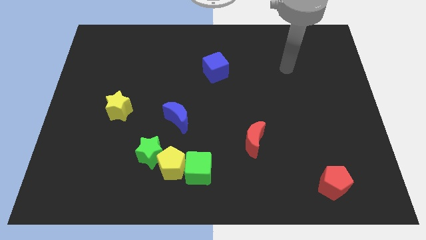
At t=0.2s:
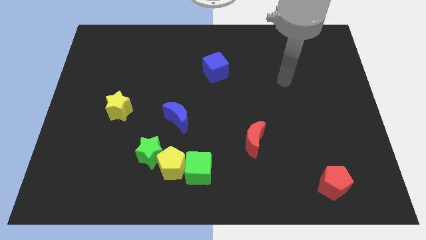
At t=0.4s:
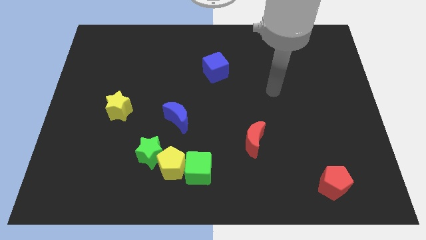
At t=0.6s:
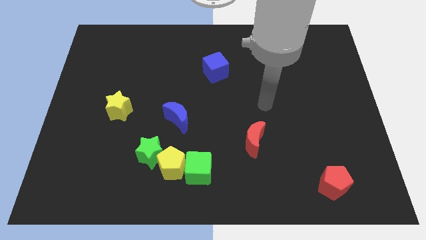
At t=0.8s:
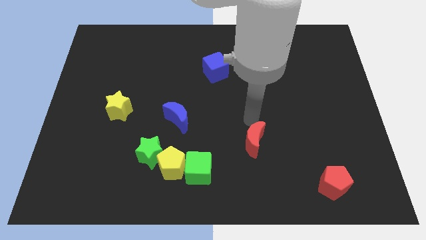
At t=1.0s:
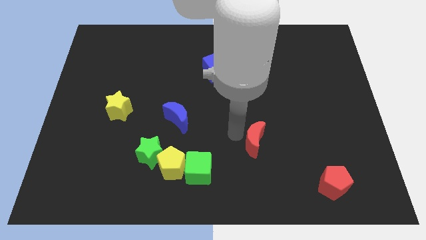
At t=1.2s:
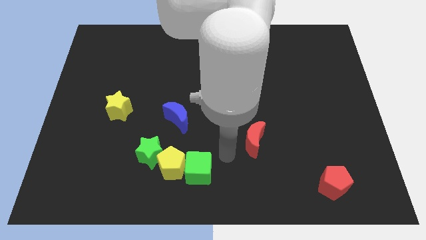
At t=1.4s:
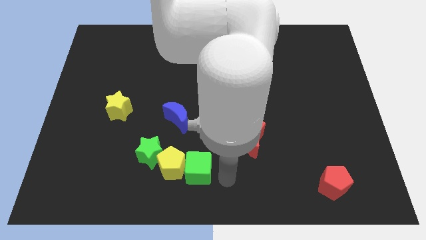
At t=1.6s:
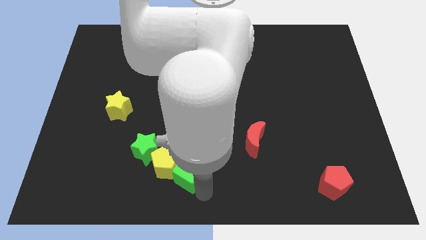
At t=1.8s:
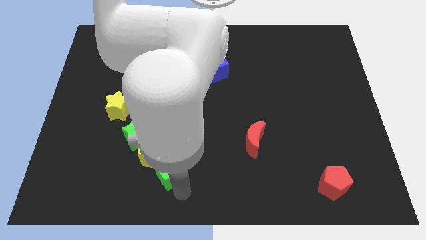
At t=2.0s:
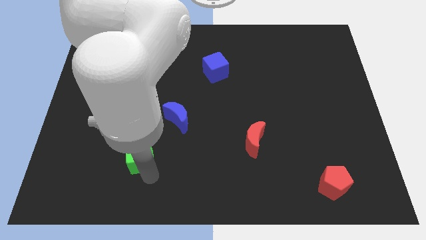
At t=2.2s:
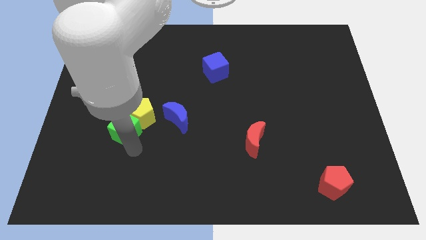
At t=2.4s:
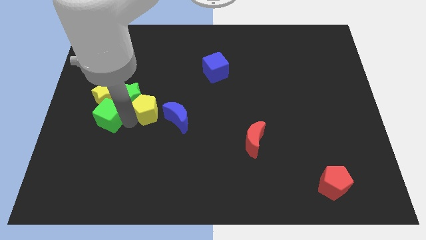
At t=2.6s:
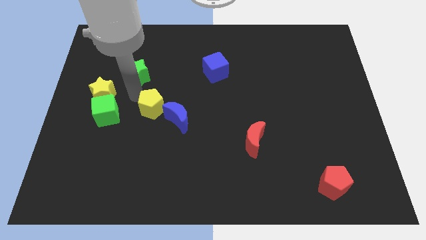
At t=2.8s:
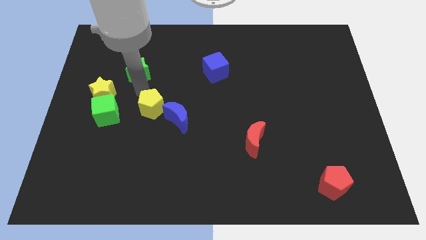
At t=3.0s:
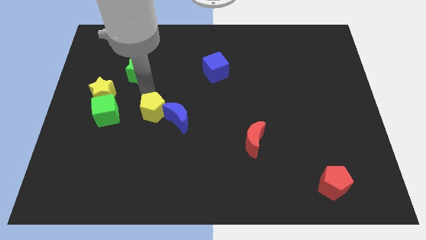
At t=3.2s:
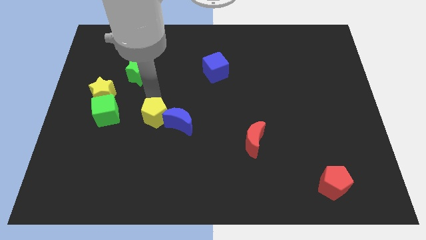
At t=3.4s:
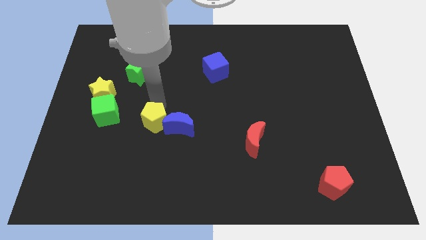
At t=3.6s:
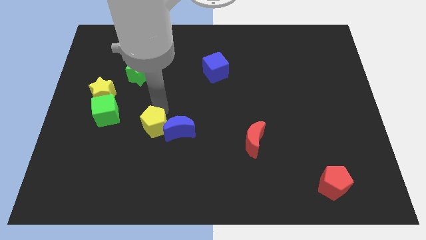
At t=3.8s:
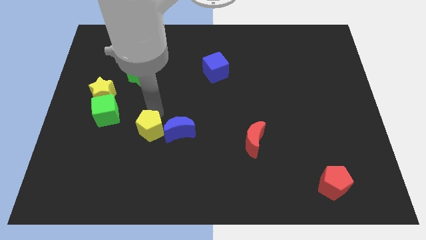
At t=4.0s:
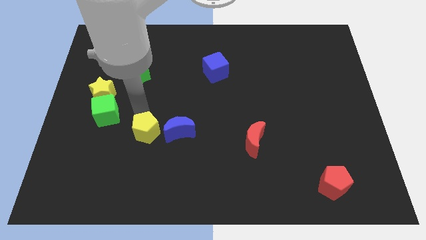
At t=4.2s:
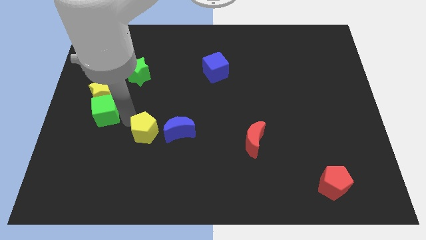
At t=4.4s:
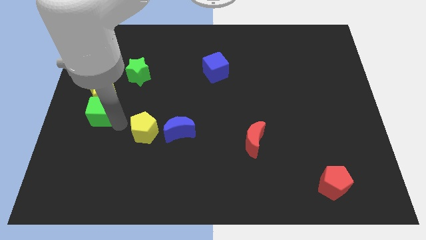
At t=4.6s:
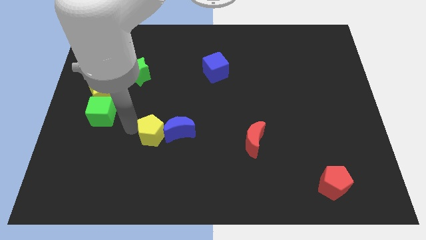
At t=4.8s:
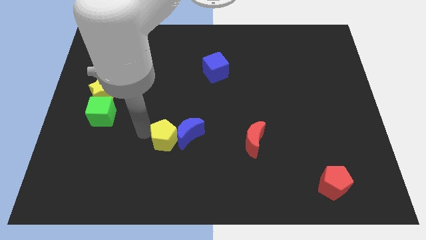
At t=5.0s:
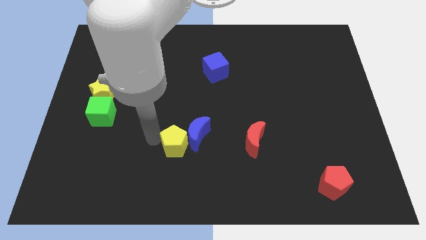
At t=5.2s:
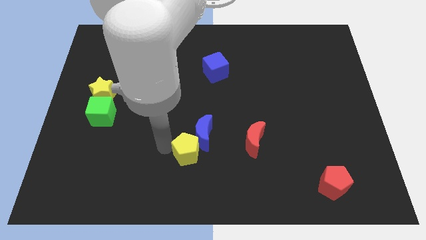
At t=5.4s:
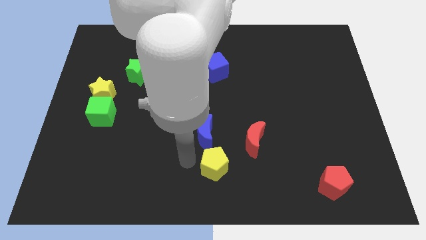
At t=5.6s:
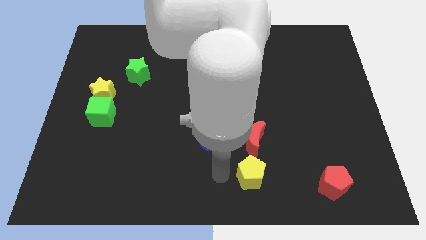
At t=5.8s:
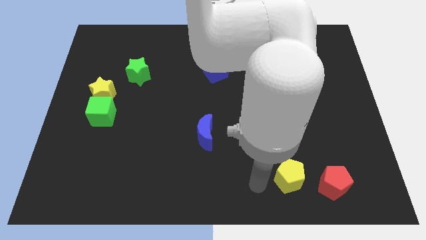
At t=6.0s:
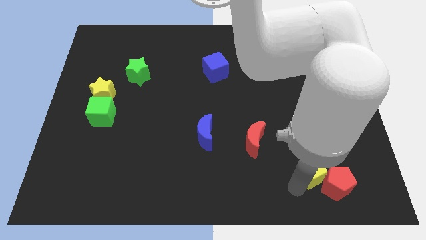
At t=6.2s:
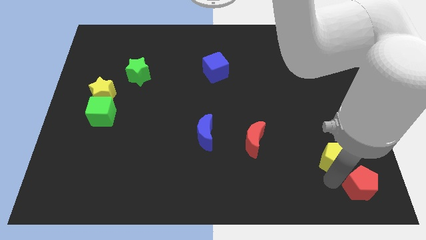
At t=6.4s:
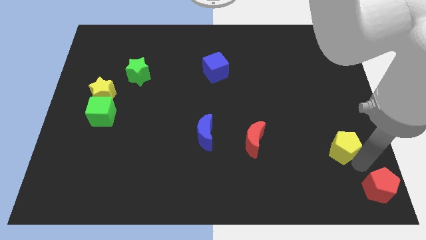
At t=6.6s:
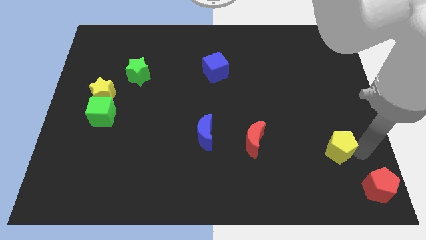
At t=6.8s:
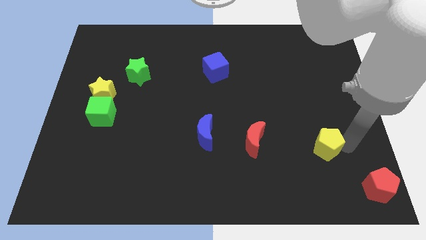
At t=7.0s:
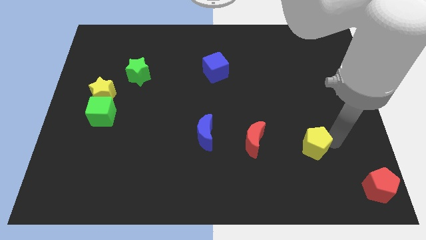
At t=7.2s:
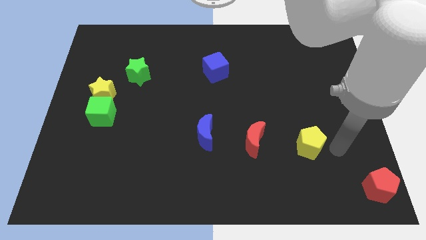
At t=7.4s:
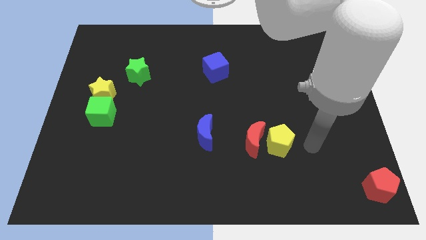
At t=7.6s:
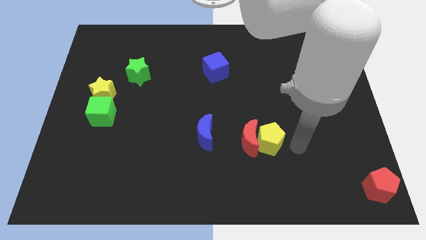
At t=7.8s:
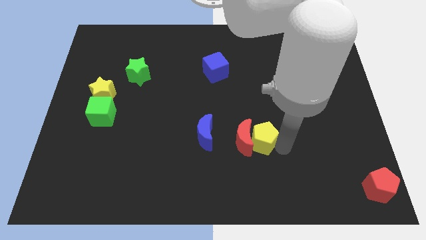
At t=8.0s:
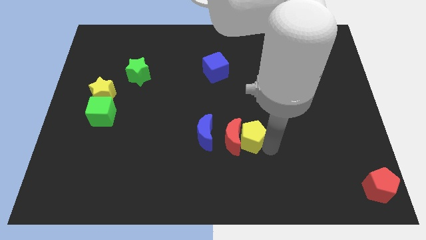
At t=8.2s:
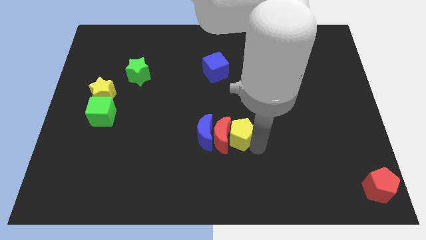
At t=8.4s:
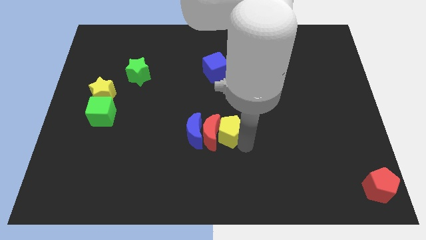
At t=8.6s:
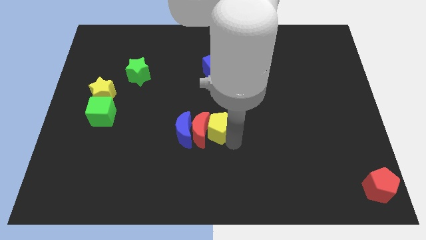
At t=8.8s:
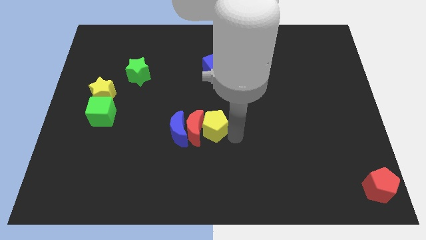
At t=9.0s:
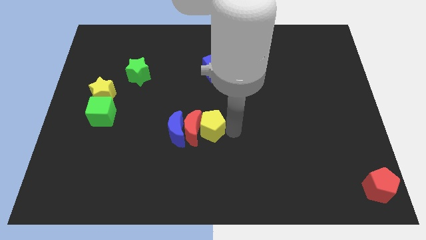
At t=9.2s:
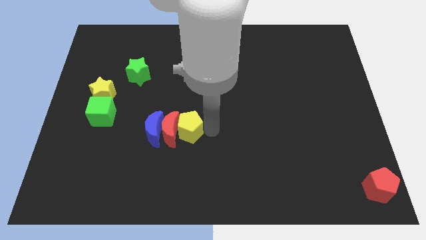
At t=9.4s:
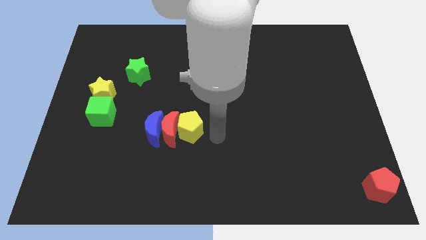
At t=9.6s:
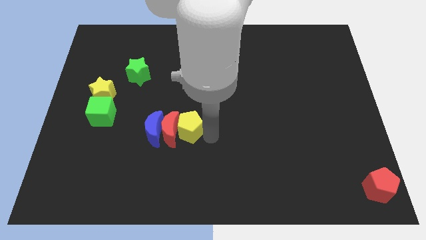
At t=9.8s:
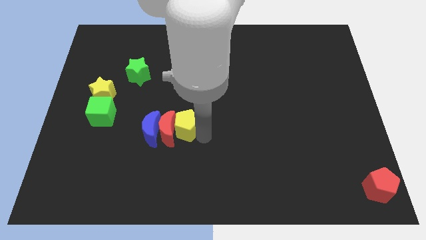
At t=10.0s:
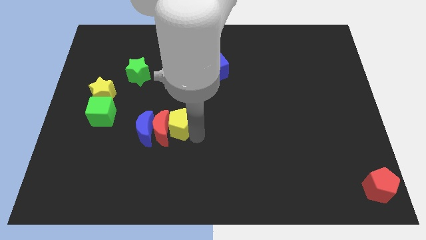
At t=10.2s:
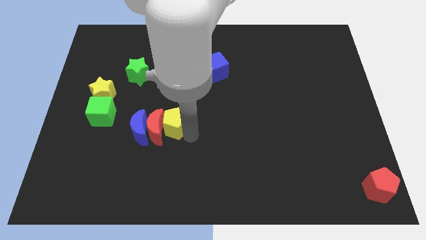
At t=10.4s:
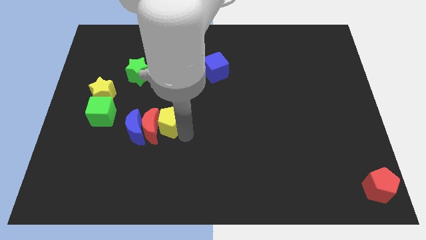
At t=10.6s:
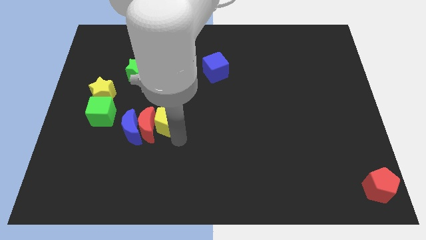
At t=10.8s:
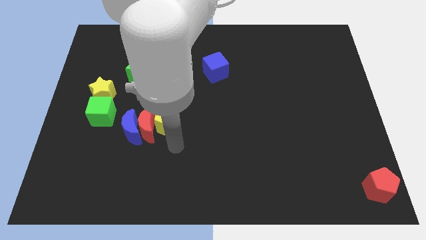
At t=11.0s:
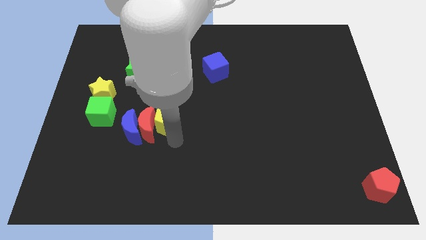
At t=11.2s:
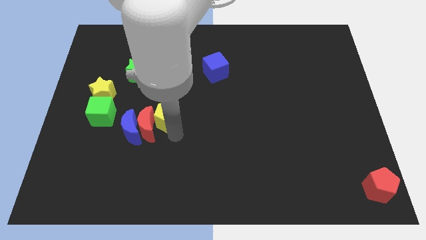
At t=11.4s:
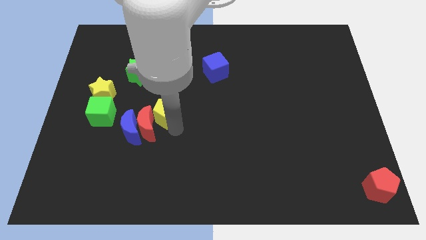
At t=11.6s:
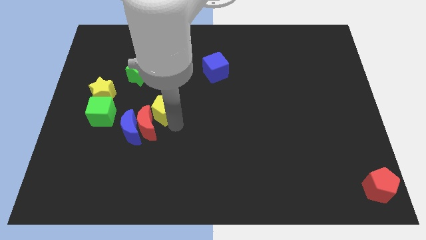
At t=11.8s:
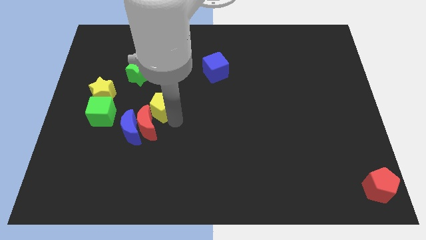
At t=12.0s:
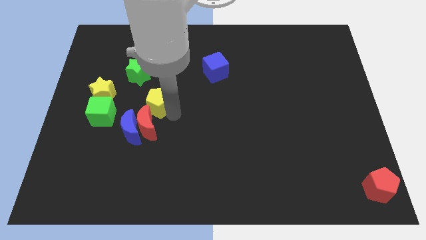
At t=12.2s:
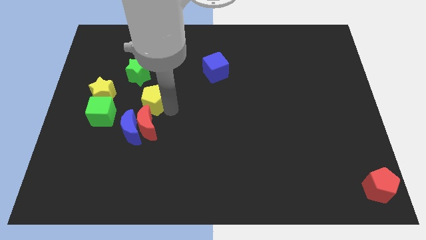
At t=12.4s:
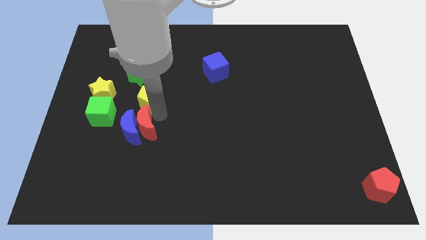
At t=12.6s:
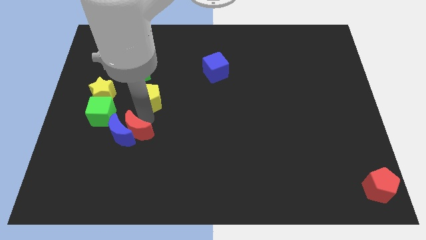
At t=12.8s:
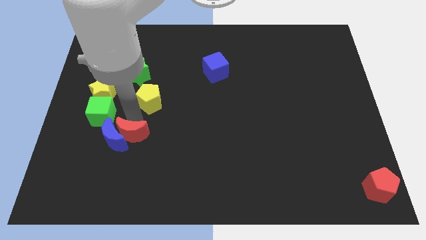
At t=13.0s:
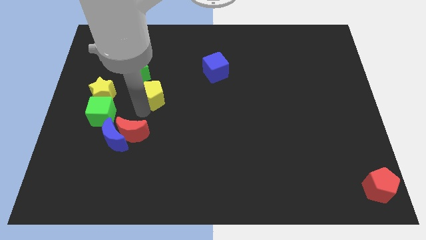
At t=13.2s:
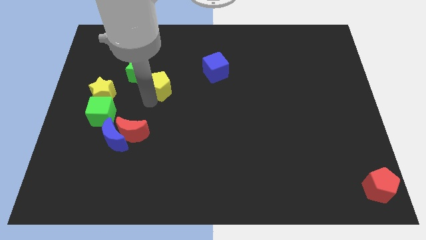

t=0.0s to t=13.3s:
move the yellow pentagon upwards

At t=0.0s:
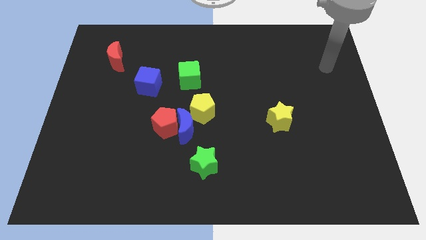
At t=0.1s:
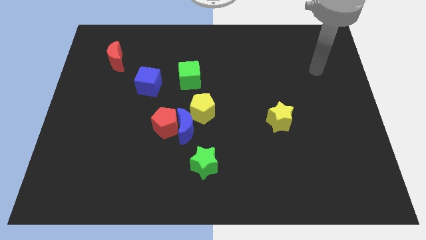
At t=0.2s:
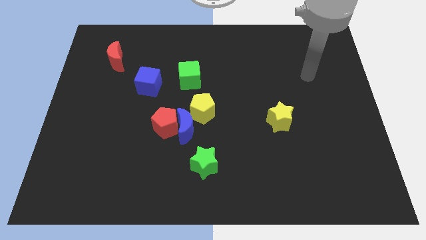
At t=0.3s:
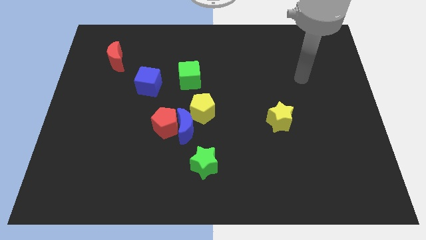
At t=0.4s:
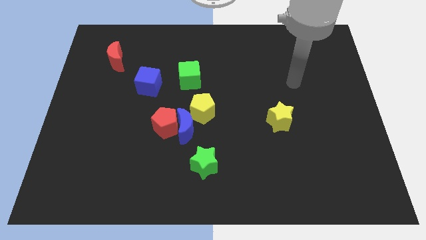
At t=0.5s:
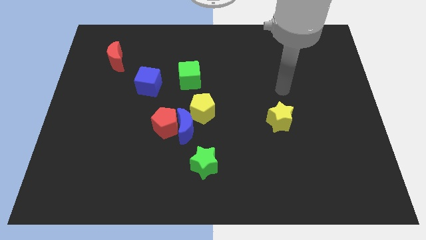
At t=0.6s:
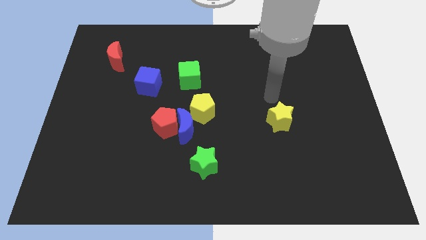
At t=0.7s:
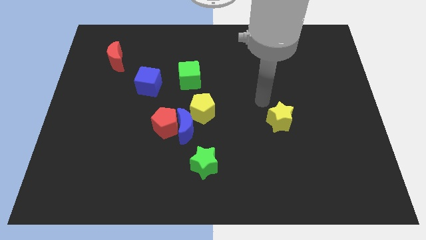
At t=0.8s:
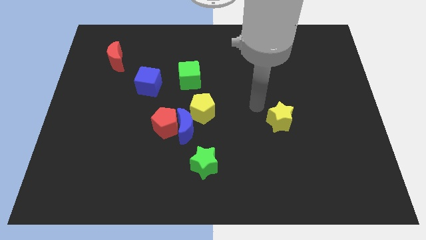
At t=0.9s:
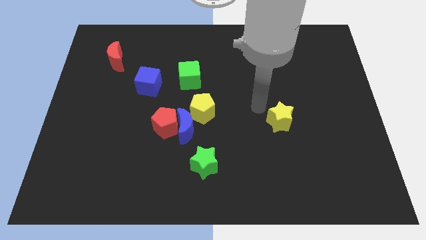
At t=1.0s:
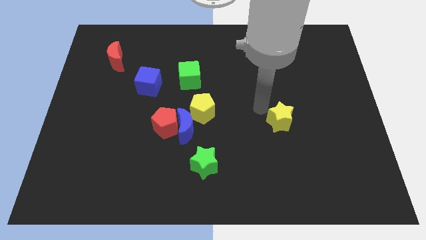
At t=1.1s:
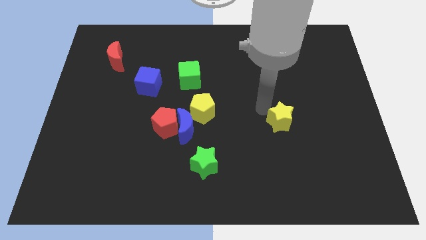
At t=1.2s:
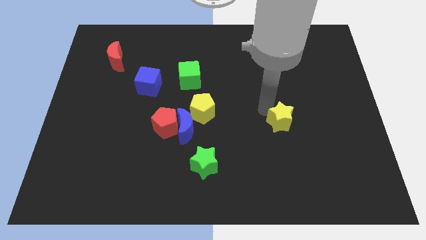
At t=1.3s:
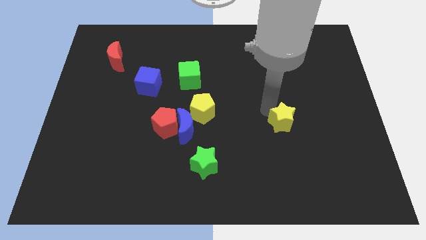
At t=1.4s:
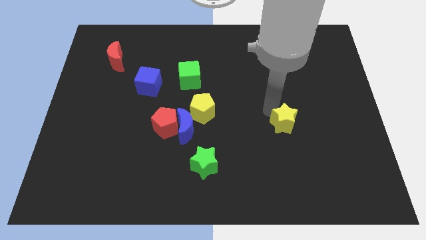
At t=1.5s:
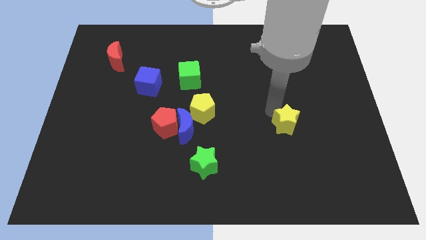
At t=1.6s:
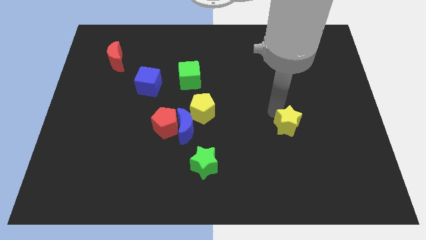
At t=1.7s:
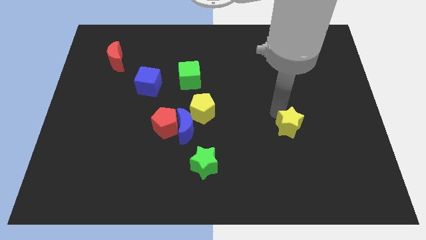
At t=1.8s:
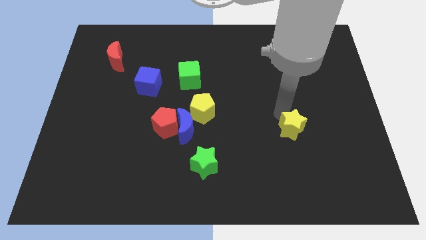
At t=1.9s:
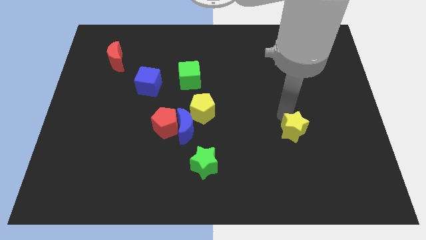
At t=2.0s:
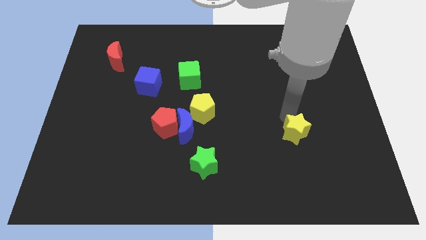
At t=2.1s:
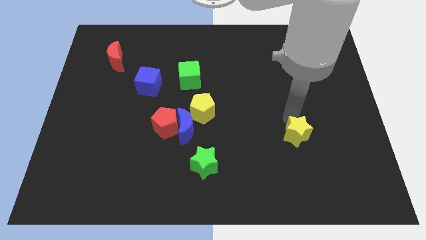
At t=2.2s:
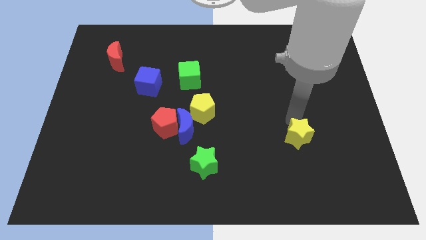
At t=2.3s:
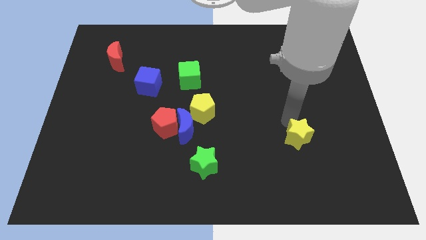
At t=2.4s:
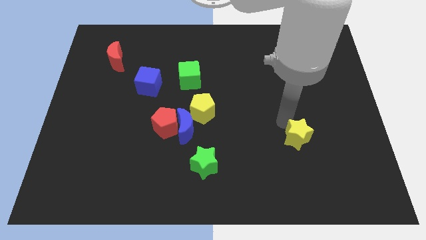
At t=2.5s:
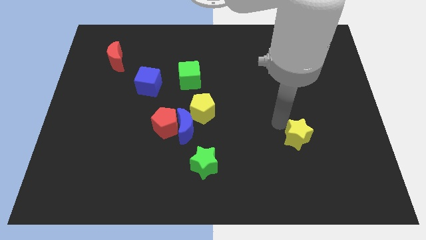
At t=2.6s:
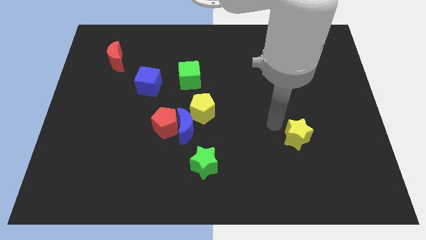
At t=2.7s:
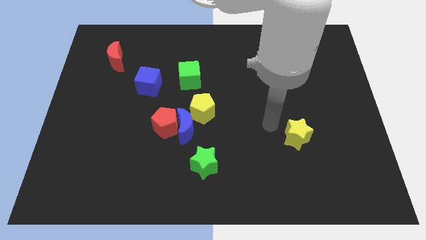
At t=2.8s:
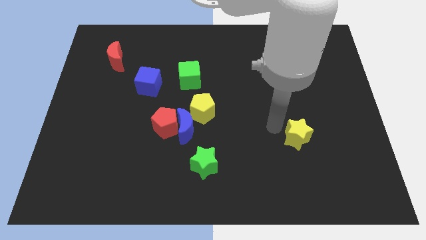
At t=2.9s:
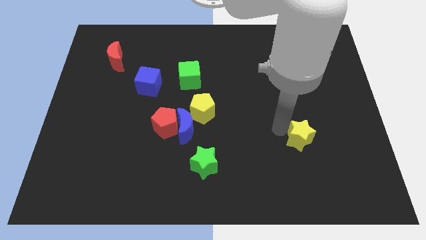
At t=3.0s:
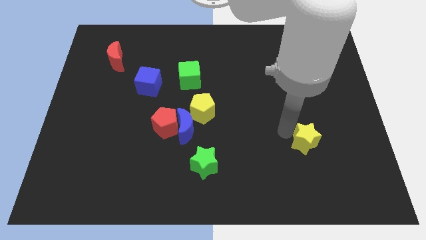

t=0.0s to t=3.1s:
slightly slide the yellow star downwards and to the right
